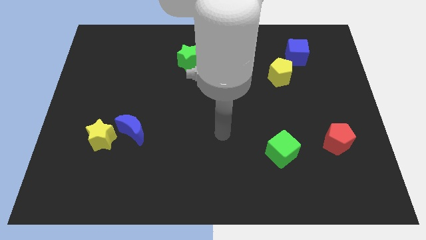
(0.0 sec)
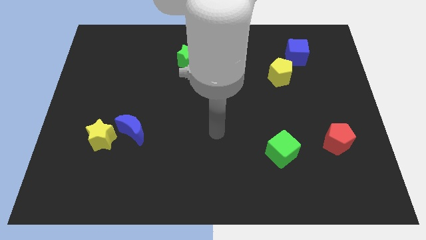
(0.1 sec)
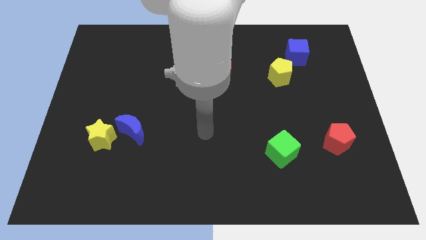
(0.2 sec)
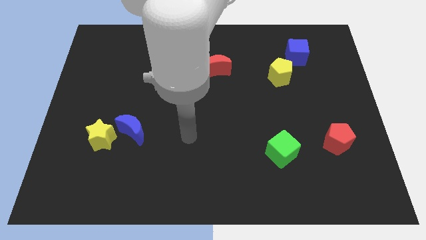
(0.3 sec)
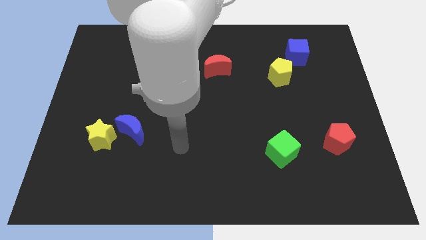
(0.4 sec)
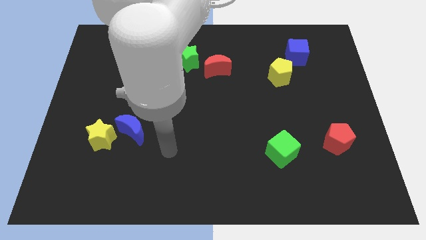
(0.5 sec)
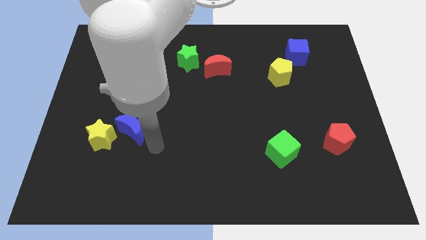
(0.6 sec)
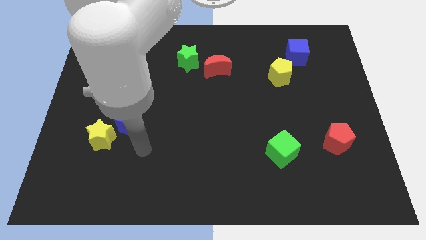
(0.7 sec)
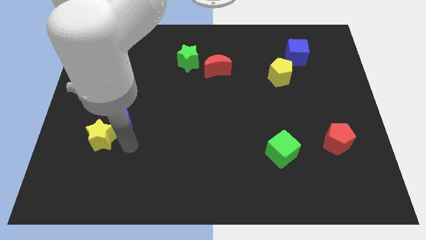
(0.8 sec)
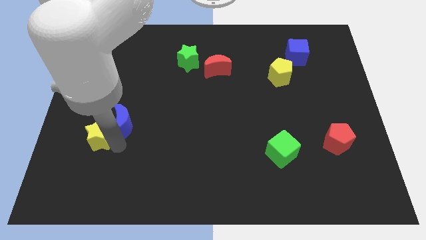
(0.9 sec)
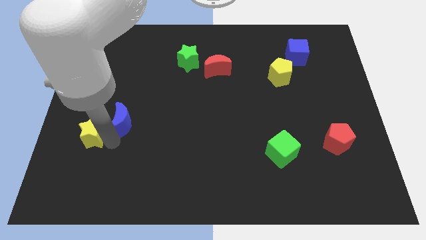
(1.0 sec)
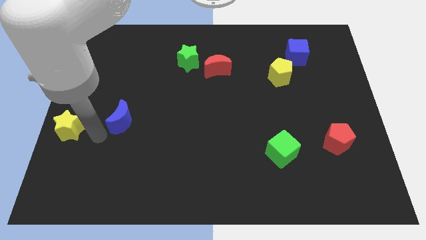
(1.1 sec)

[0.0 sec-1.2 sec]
pull the blue moon apart from the yellow star

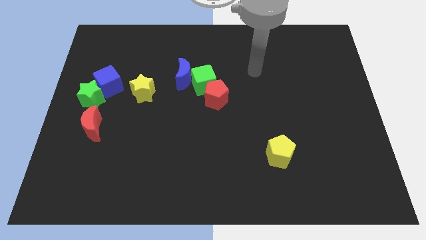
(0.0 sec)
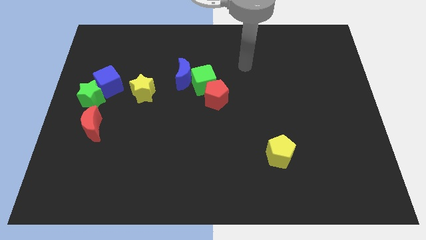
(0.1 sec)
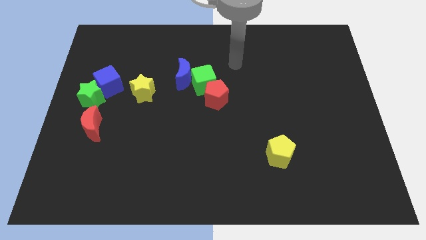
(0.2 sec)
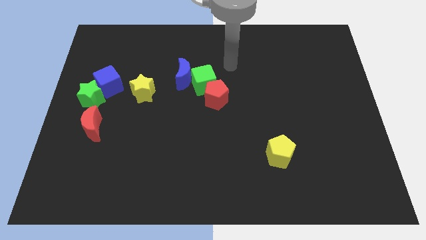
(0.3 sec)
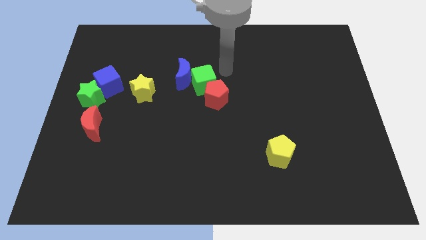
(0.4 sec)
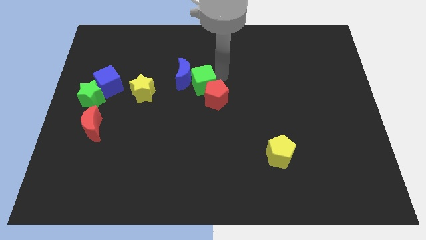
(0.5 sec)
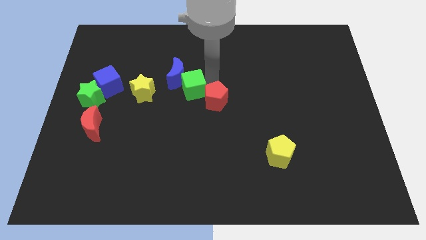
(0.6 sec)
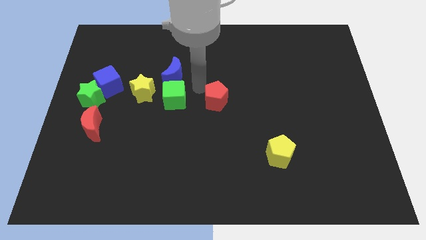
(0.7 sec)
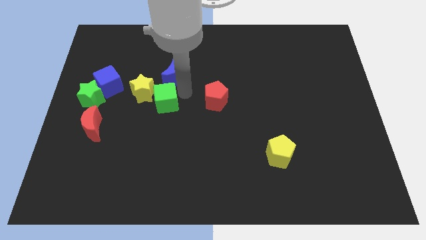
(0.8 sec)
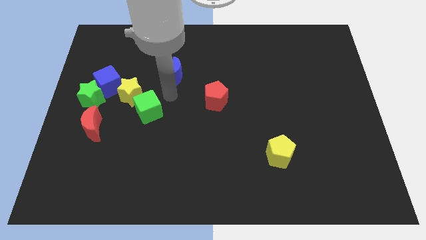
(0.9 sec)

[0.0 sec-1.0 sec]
move the blue moon away from the green cube

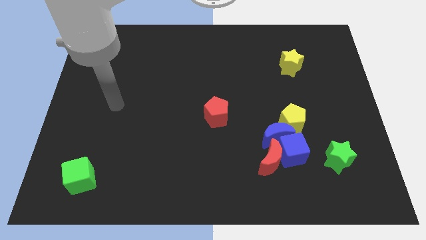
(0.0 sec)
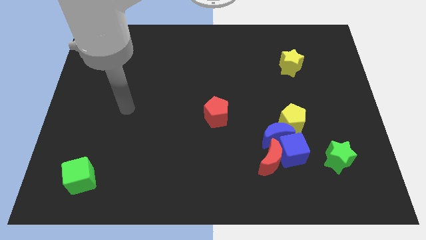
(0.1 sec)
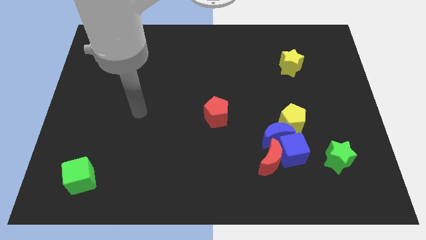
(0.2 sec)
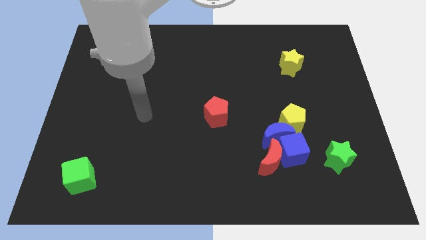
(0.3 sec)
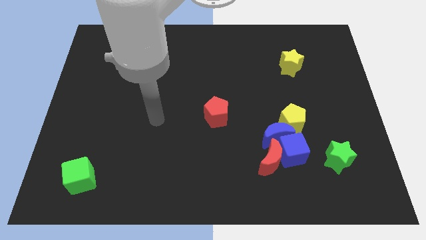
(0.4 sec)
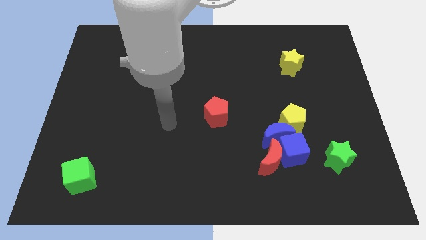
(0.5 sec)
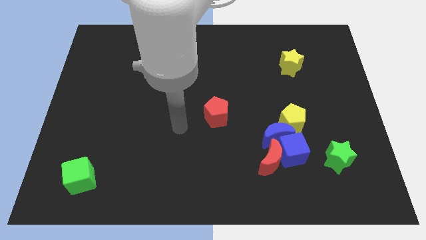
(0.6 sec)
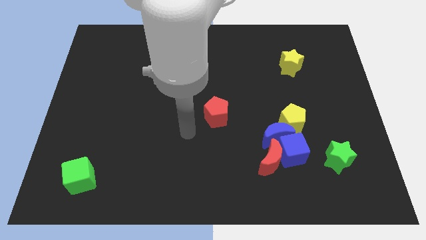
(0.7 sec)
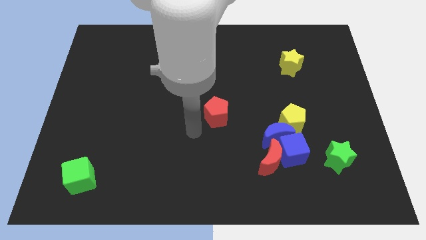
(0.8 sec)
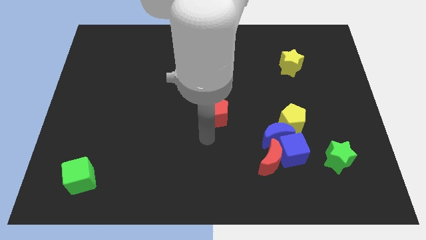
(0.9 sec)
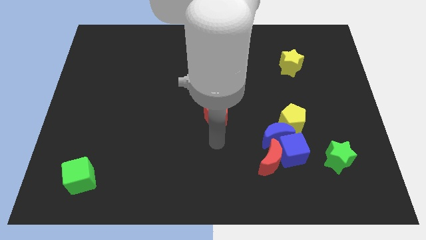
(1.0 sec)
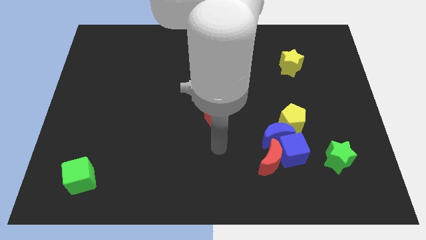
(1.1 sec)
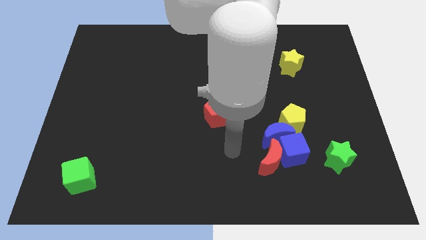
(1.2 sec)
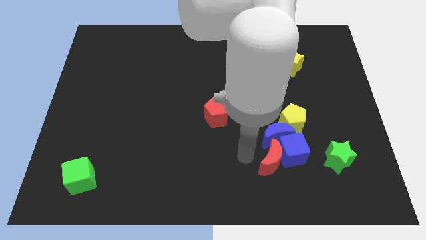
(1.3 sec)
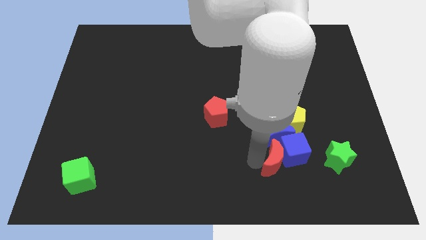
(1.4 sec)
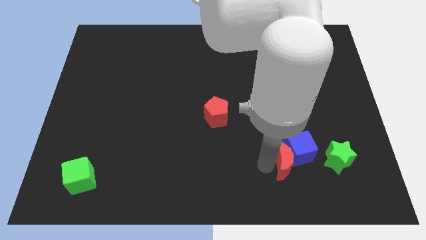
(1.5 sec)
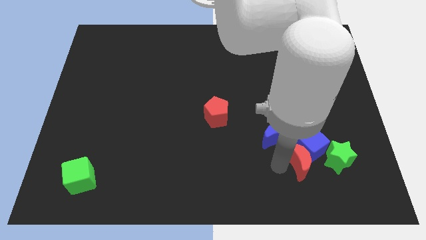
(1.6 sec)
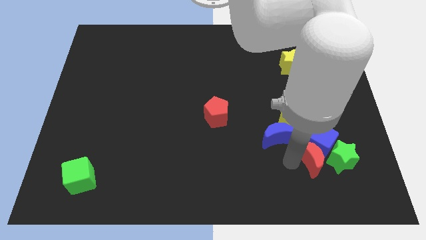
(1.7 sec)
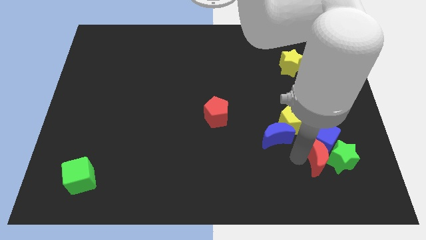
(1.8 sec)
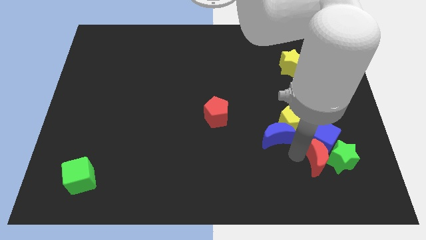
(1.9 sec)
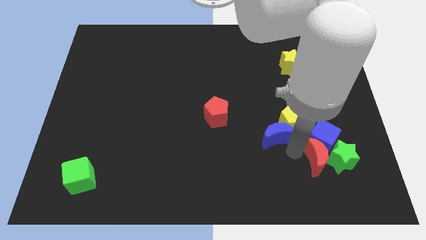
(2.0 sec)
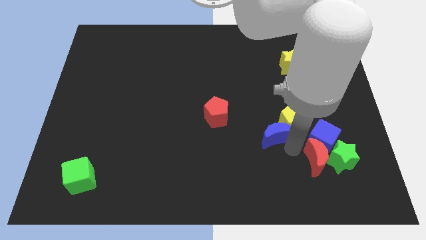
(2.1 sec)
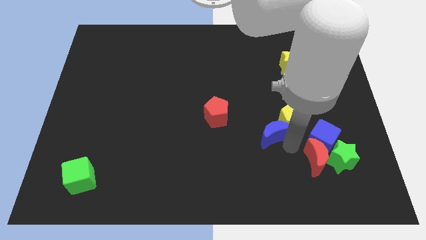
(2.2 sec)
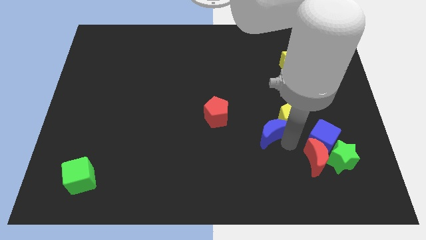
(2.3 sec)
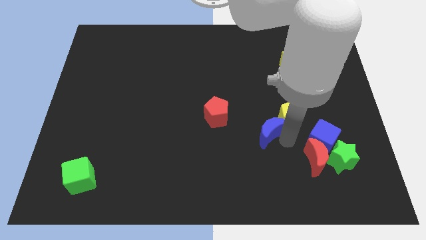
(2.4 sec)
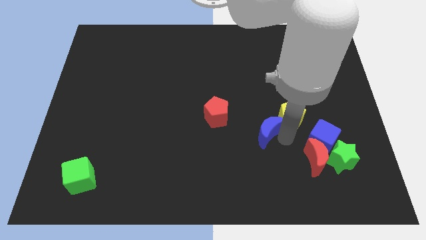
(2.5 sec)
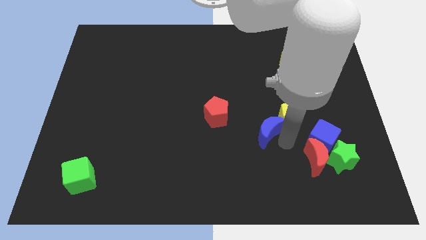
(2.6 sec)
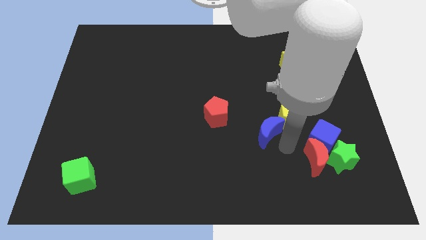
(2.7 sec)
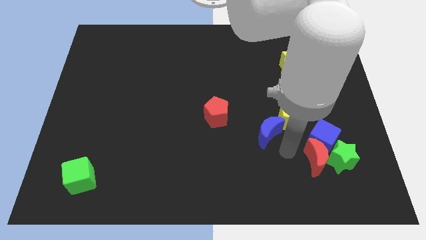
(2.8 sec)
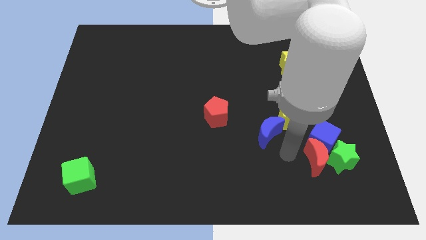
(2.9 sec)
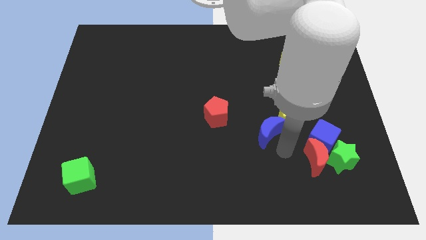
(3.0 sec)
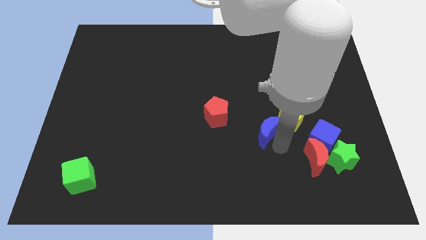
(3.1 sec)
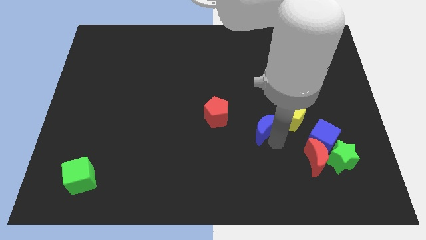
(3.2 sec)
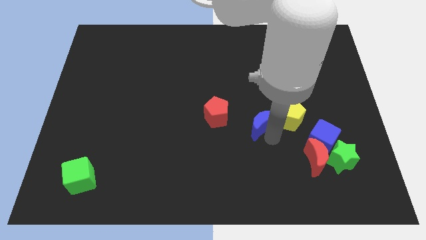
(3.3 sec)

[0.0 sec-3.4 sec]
pull the blue moon apart from the blue cube, yellow pentagon, and red moon

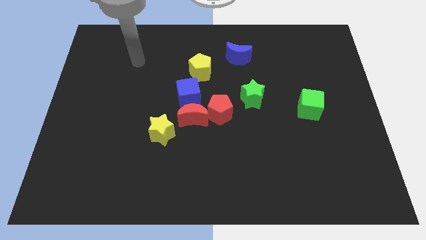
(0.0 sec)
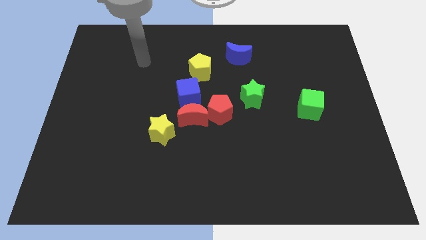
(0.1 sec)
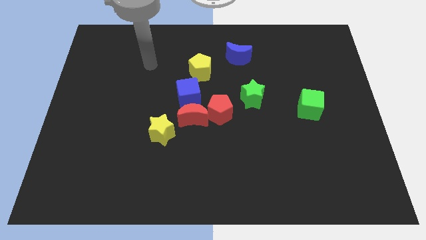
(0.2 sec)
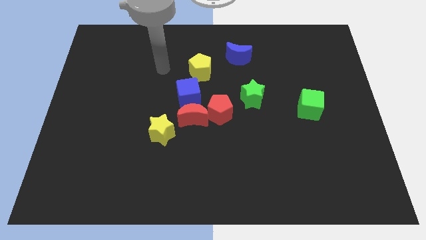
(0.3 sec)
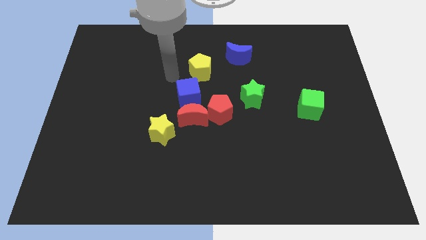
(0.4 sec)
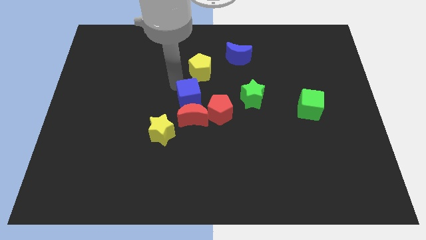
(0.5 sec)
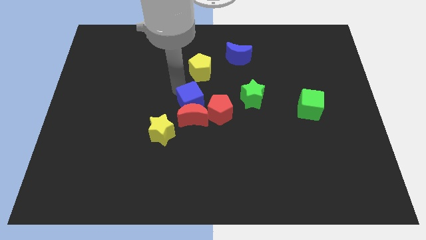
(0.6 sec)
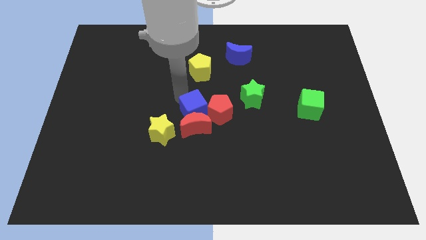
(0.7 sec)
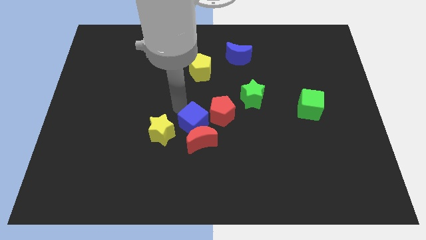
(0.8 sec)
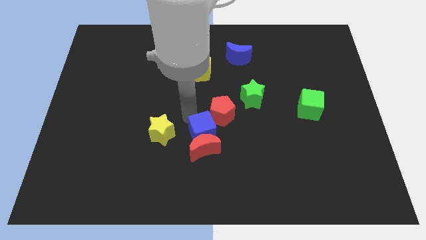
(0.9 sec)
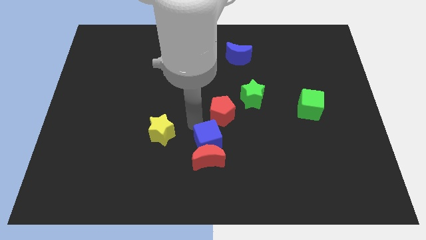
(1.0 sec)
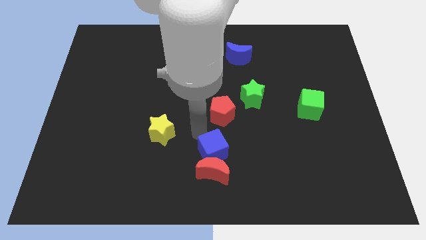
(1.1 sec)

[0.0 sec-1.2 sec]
pull the red moon apart from the red pentagon, blue cube, and yellow star

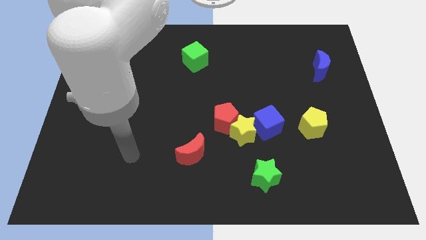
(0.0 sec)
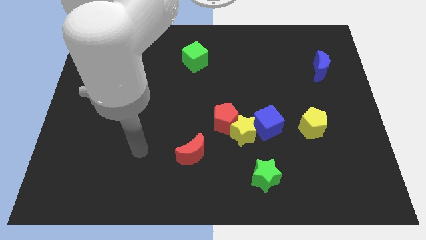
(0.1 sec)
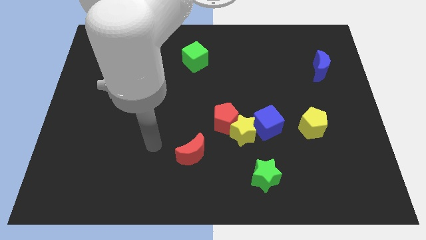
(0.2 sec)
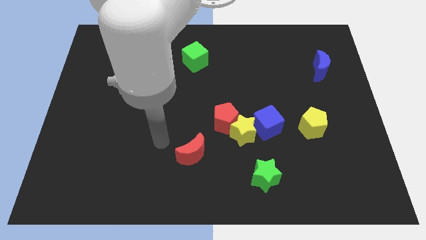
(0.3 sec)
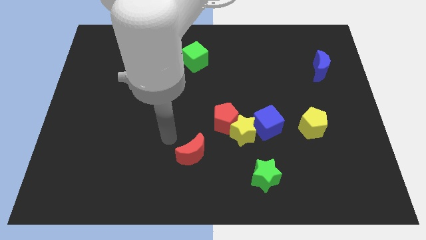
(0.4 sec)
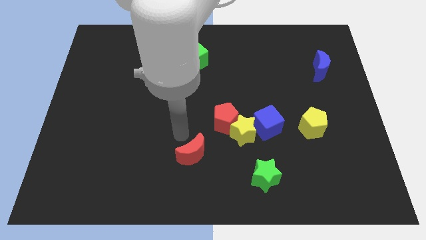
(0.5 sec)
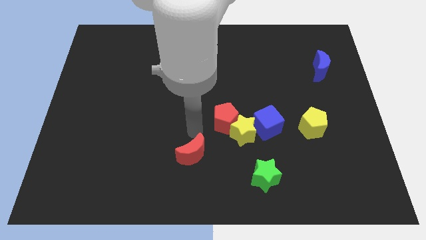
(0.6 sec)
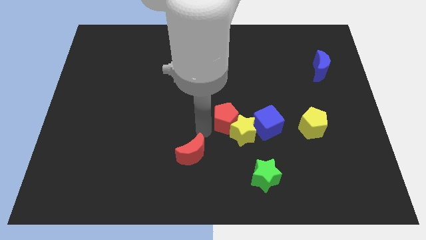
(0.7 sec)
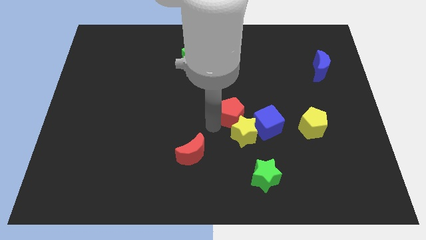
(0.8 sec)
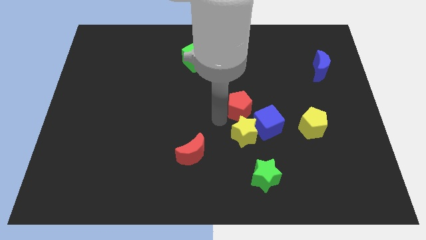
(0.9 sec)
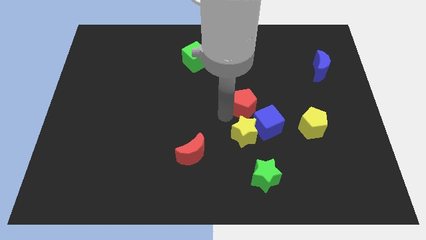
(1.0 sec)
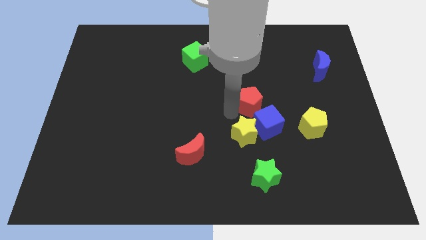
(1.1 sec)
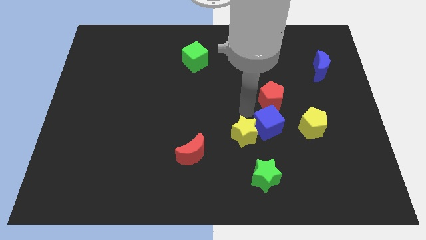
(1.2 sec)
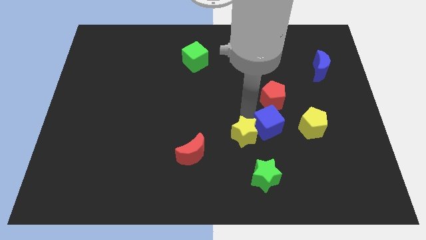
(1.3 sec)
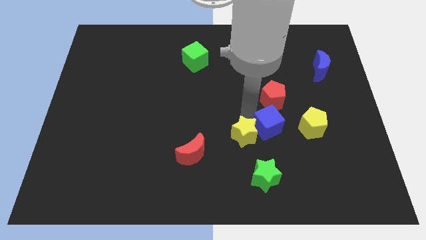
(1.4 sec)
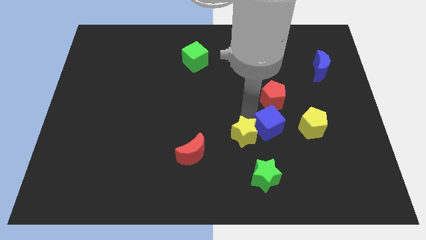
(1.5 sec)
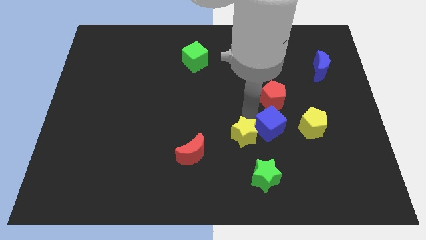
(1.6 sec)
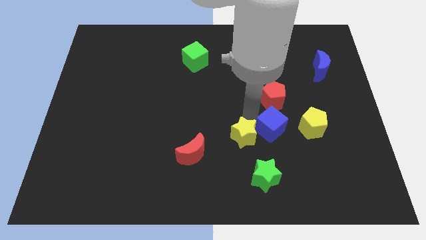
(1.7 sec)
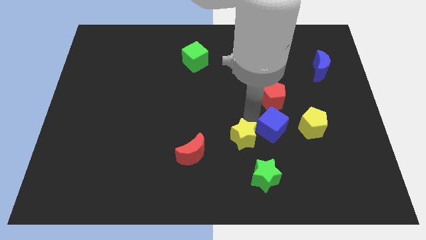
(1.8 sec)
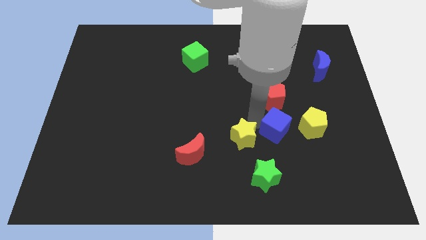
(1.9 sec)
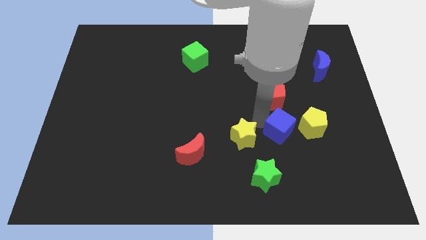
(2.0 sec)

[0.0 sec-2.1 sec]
move the yellow star away from the red pentagon and blue cube

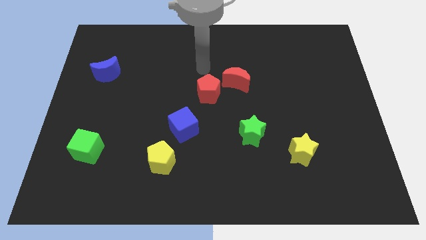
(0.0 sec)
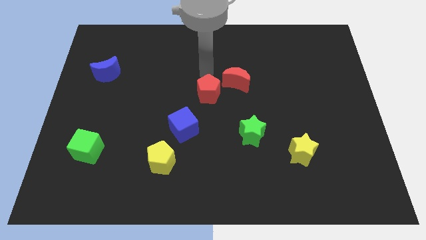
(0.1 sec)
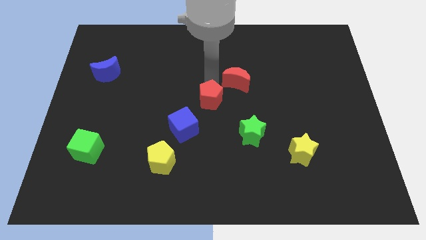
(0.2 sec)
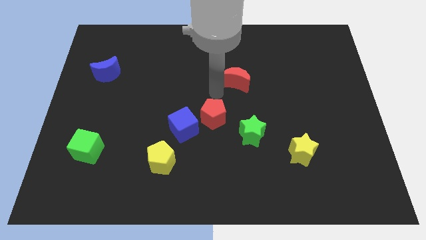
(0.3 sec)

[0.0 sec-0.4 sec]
move the red moon away from the red pentagon
